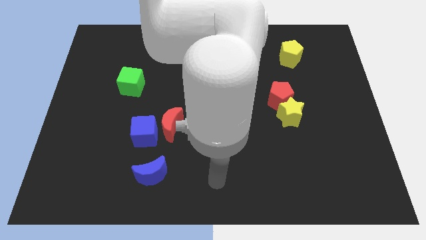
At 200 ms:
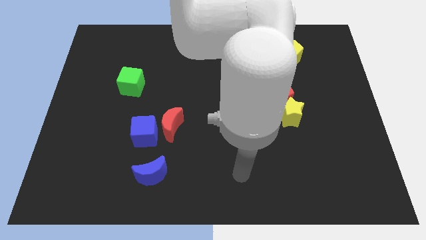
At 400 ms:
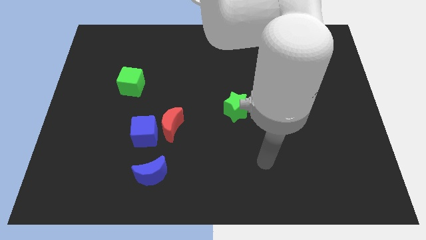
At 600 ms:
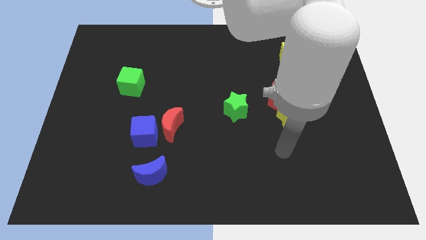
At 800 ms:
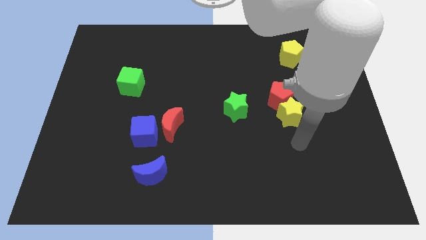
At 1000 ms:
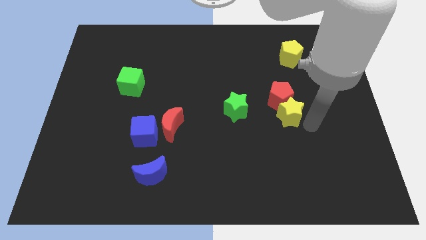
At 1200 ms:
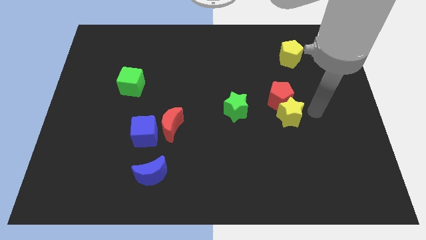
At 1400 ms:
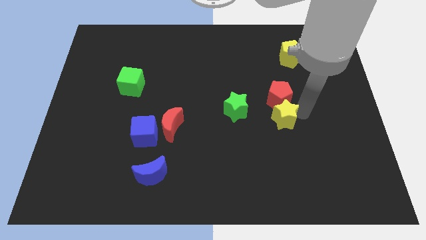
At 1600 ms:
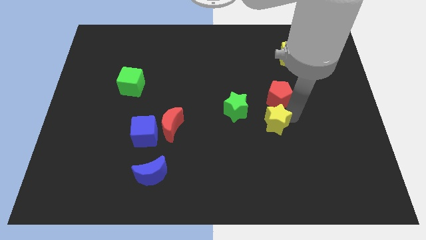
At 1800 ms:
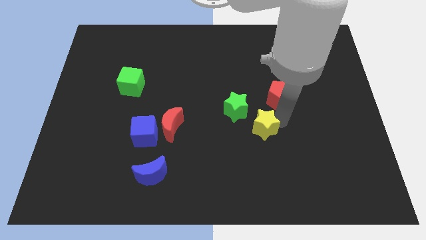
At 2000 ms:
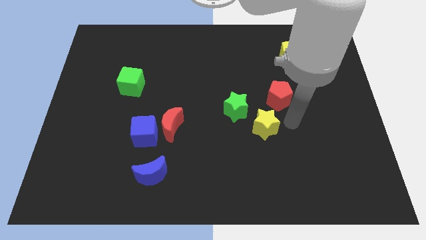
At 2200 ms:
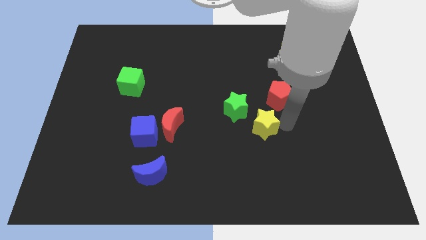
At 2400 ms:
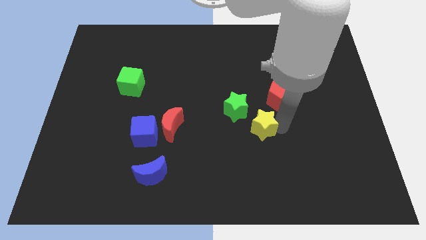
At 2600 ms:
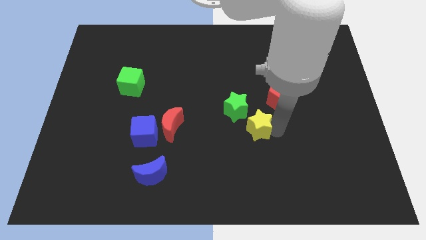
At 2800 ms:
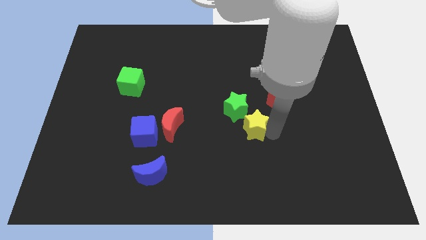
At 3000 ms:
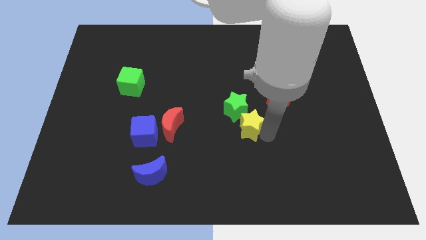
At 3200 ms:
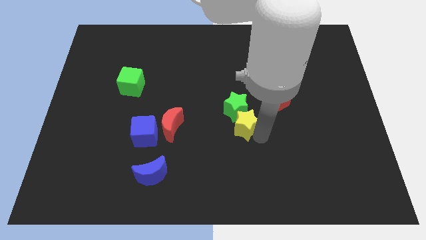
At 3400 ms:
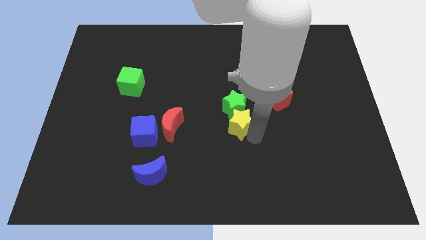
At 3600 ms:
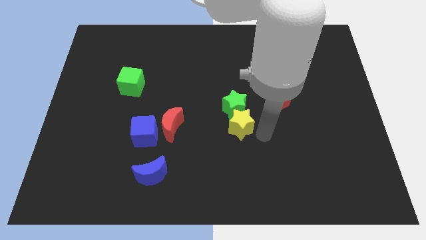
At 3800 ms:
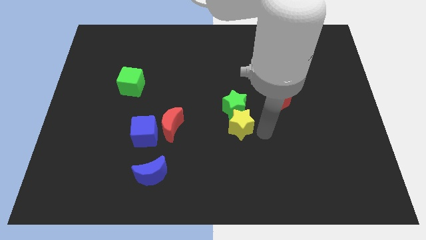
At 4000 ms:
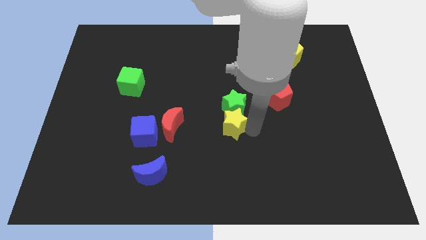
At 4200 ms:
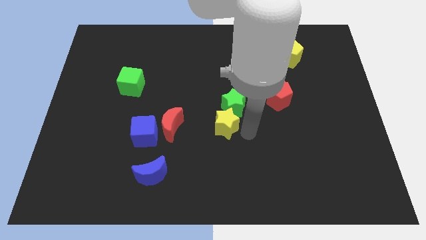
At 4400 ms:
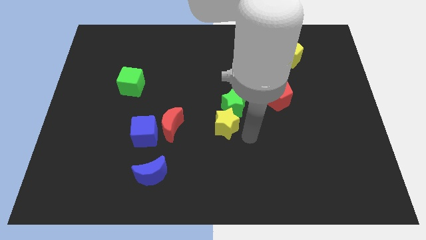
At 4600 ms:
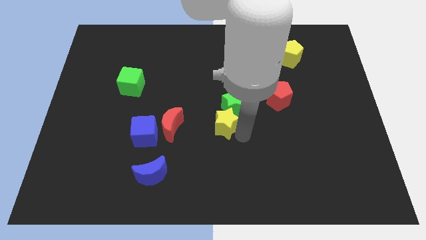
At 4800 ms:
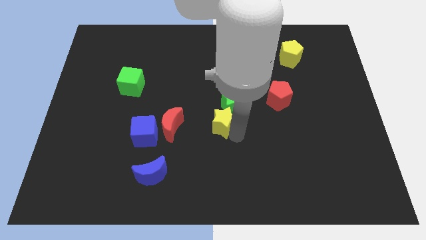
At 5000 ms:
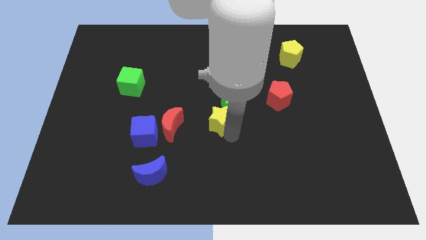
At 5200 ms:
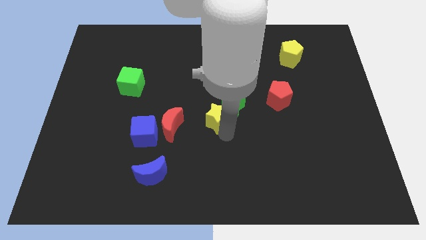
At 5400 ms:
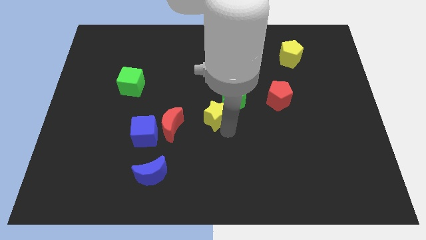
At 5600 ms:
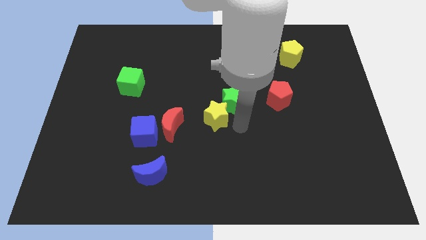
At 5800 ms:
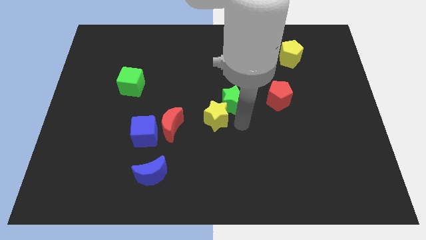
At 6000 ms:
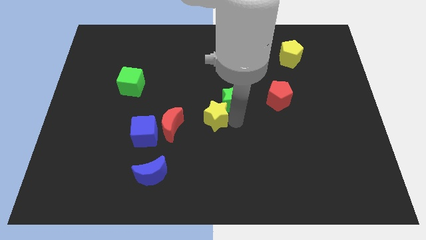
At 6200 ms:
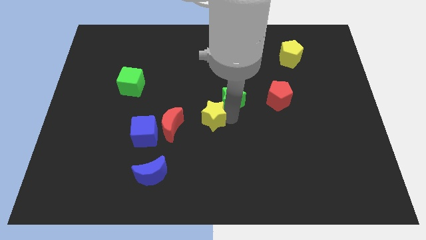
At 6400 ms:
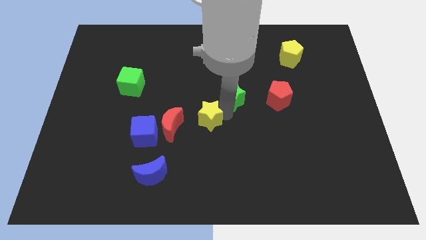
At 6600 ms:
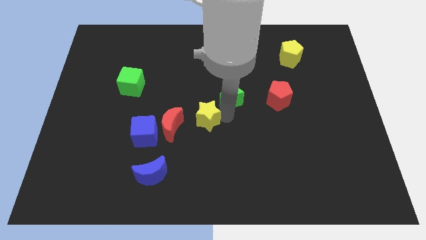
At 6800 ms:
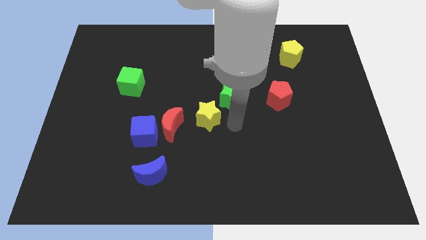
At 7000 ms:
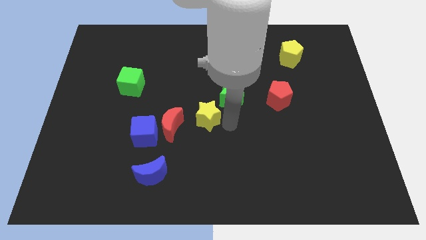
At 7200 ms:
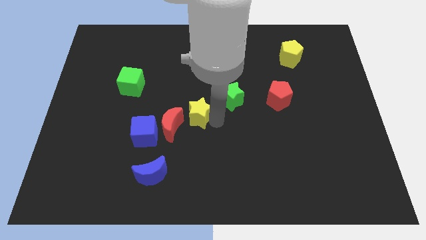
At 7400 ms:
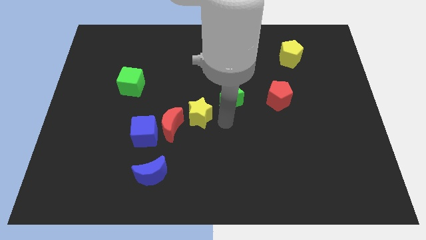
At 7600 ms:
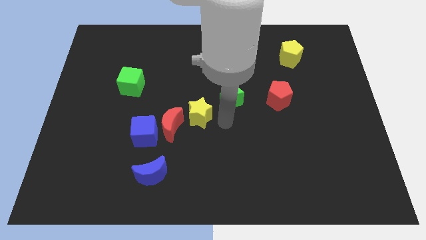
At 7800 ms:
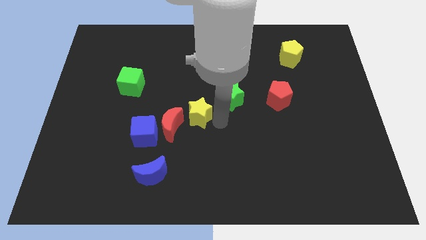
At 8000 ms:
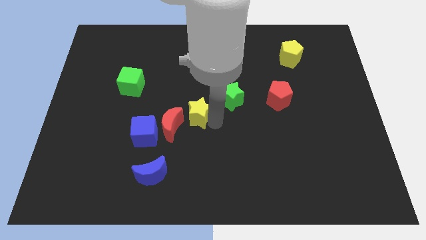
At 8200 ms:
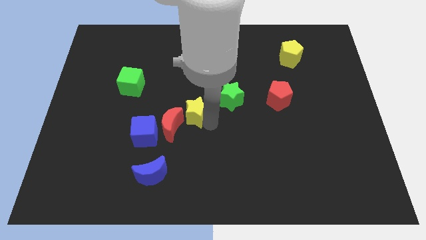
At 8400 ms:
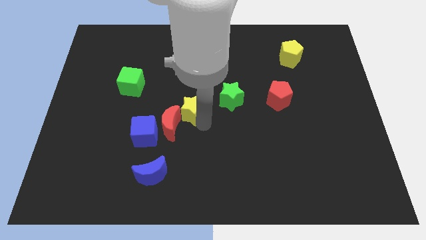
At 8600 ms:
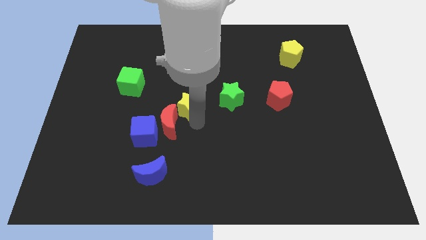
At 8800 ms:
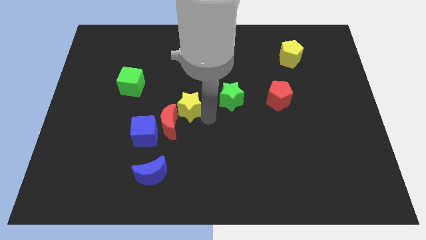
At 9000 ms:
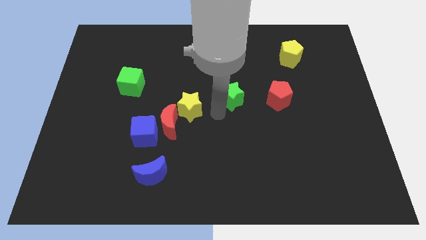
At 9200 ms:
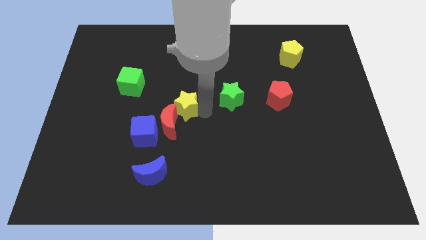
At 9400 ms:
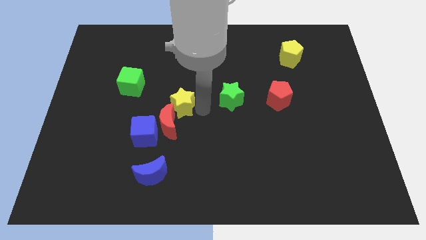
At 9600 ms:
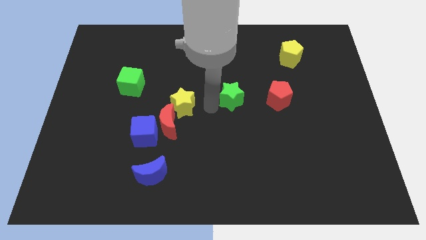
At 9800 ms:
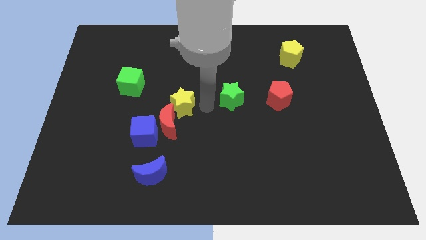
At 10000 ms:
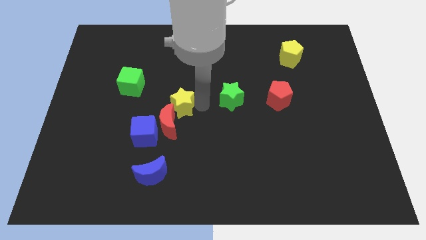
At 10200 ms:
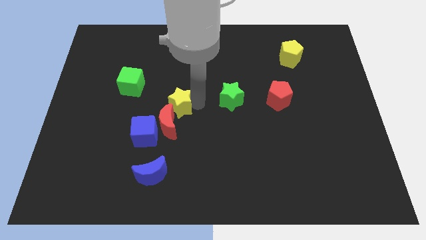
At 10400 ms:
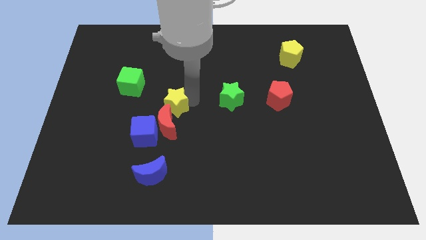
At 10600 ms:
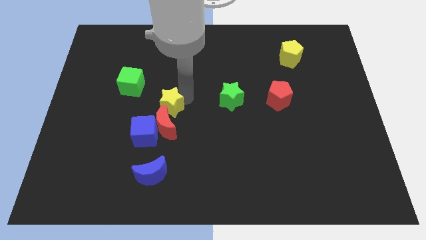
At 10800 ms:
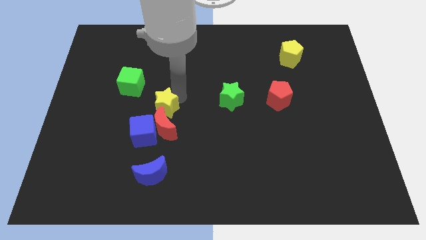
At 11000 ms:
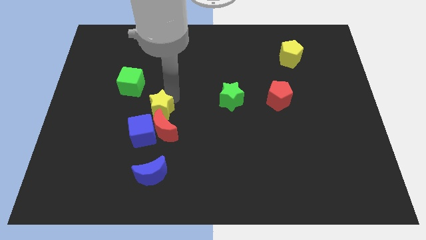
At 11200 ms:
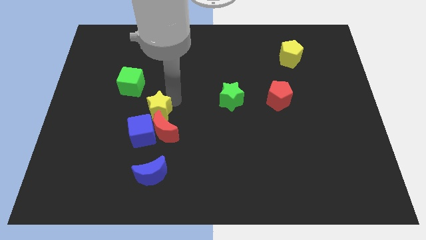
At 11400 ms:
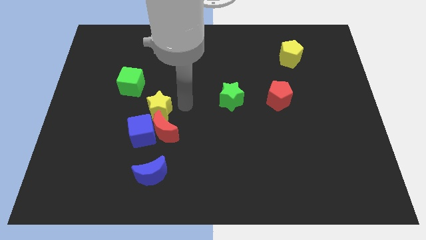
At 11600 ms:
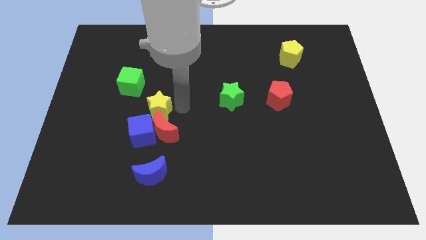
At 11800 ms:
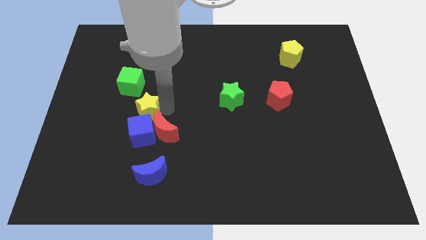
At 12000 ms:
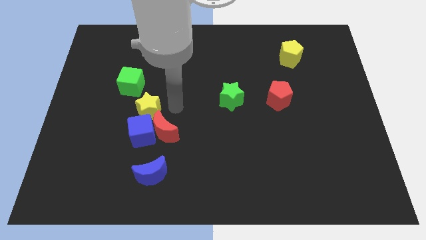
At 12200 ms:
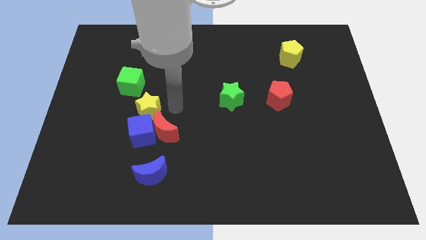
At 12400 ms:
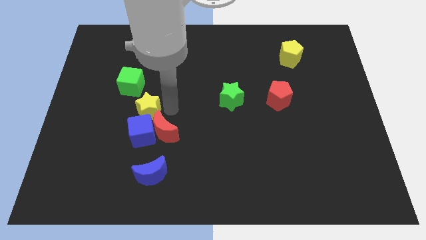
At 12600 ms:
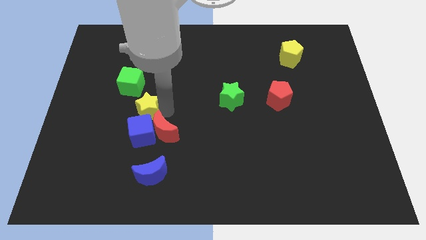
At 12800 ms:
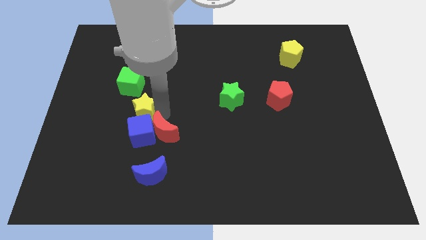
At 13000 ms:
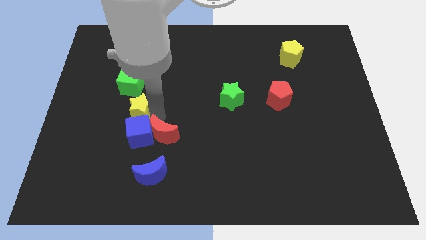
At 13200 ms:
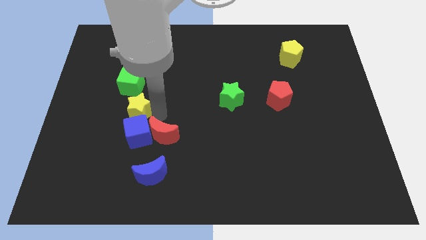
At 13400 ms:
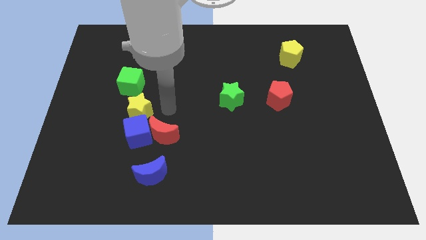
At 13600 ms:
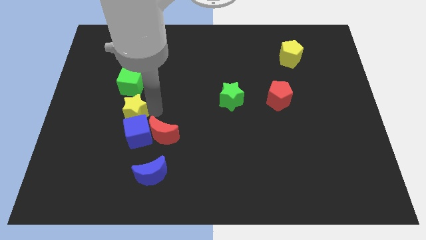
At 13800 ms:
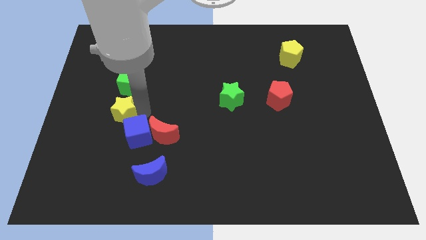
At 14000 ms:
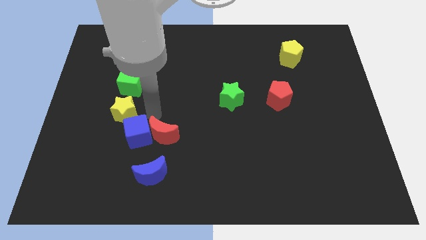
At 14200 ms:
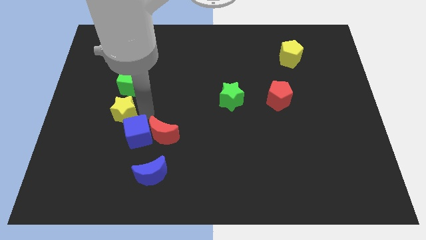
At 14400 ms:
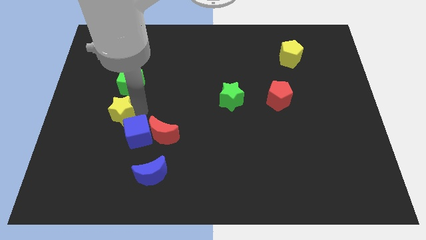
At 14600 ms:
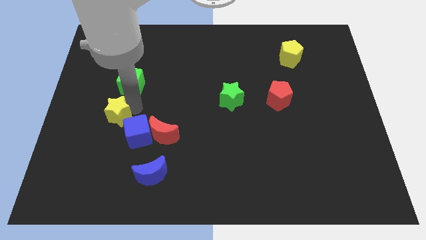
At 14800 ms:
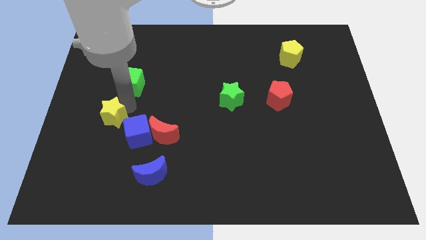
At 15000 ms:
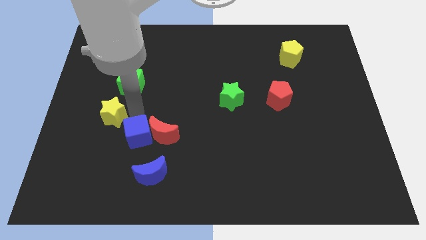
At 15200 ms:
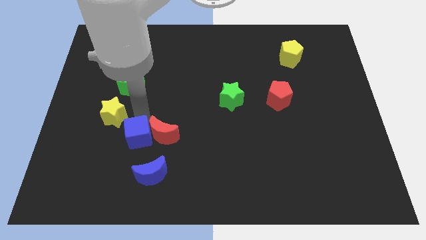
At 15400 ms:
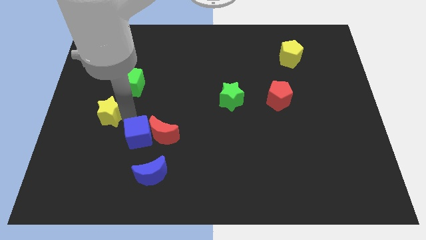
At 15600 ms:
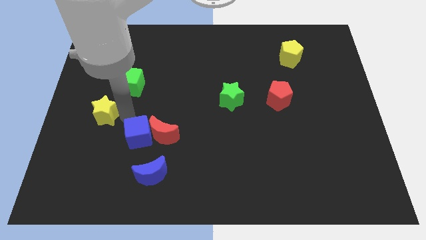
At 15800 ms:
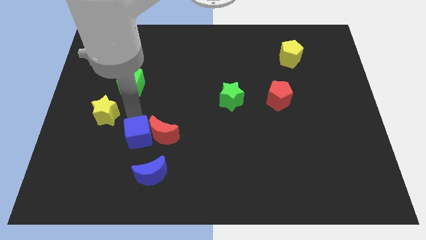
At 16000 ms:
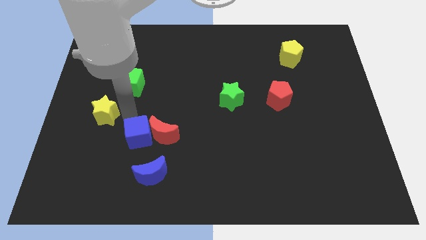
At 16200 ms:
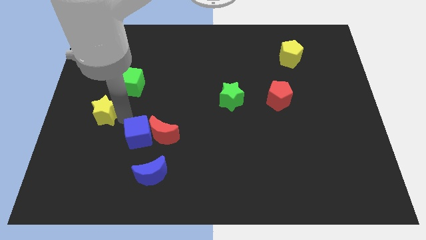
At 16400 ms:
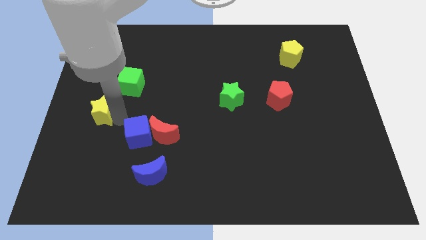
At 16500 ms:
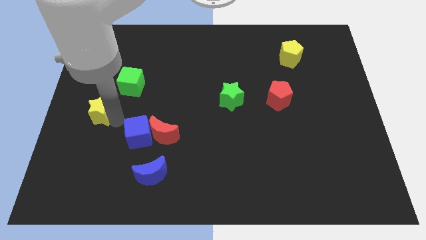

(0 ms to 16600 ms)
put the yellow star to the left side
